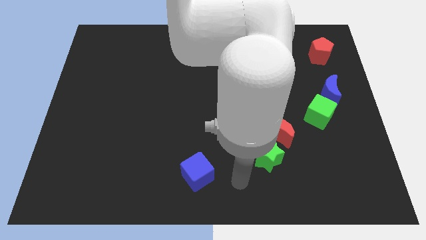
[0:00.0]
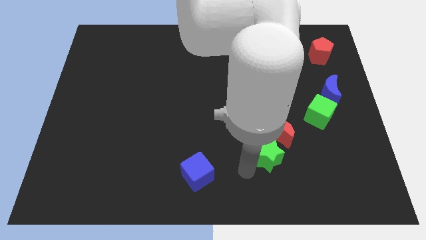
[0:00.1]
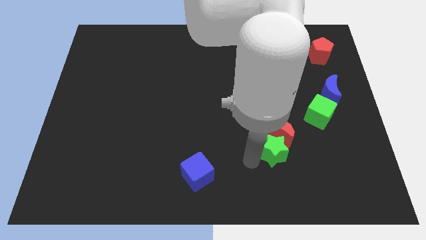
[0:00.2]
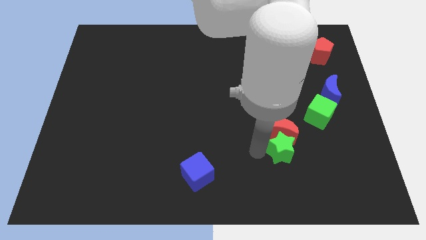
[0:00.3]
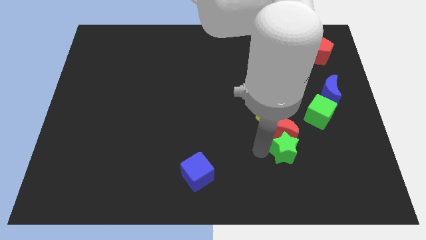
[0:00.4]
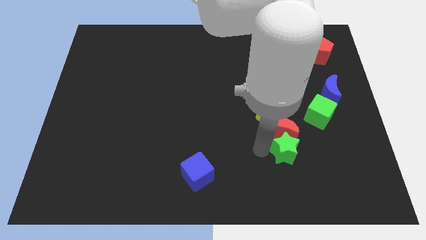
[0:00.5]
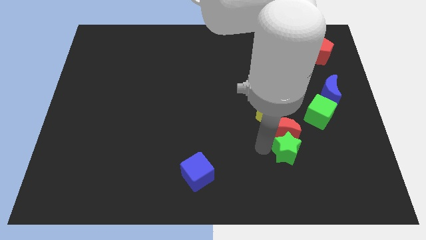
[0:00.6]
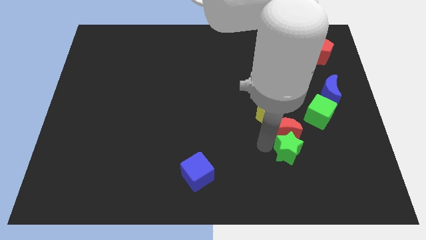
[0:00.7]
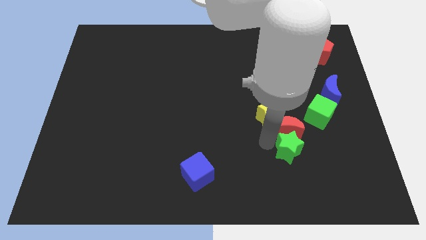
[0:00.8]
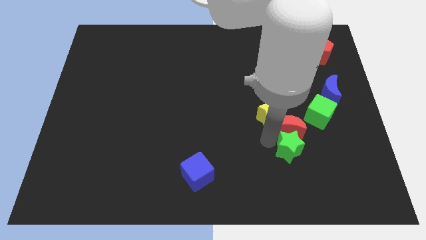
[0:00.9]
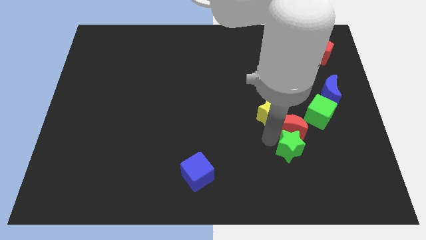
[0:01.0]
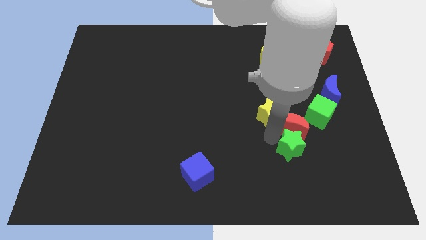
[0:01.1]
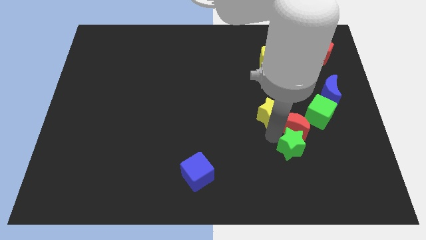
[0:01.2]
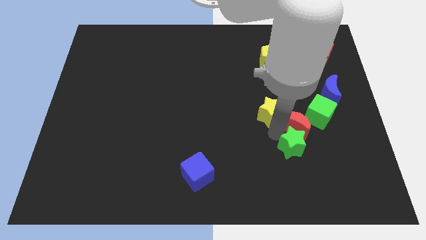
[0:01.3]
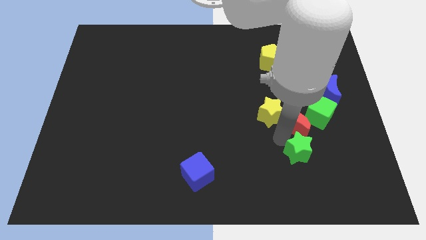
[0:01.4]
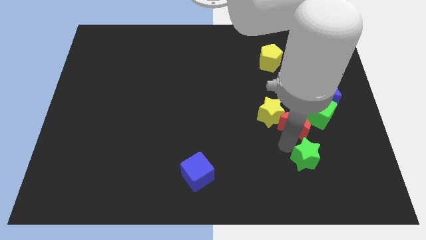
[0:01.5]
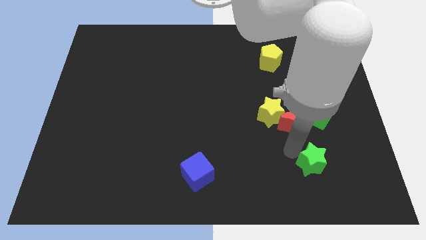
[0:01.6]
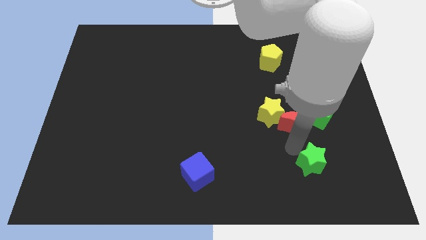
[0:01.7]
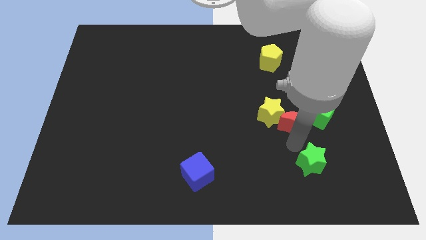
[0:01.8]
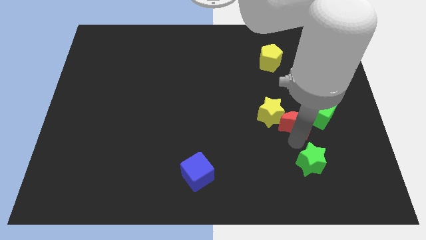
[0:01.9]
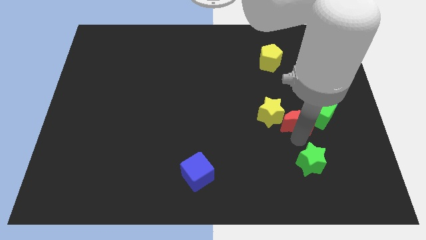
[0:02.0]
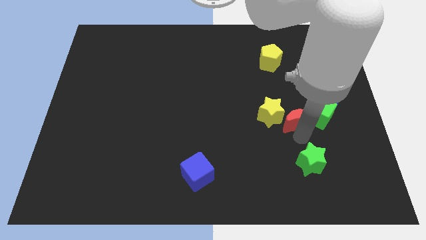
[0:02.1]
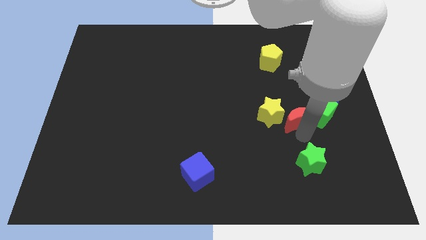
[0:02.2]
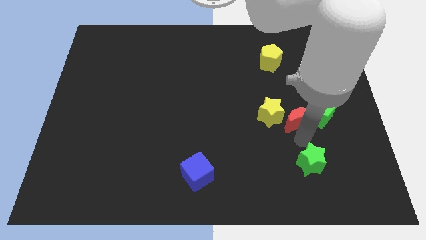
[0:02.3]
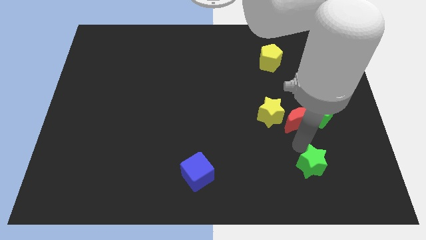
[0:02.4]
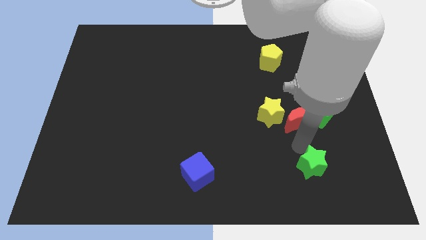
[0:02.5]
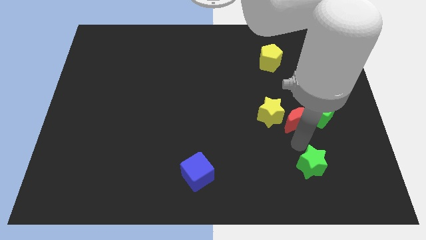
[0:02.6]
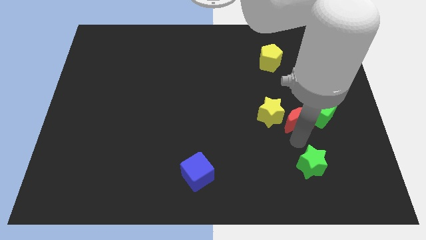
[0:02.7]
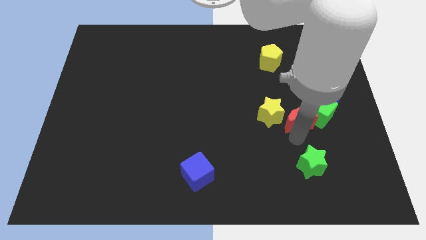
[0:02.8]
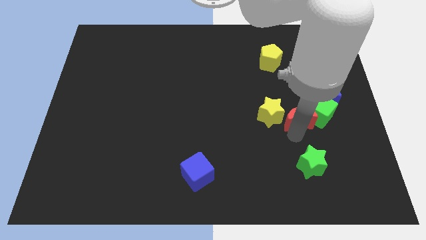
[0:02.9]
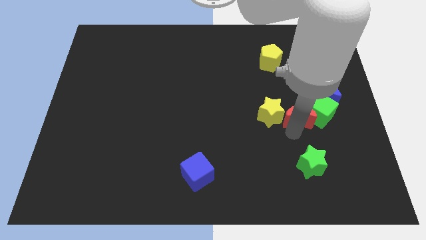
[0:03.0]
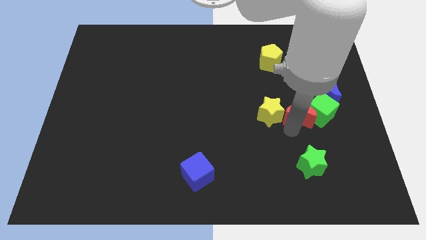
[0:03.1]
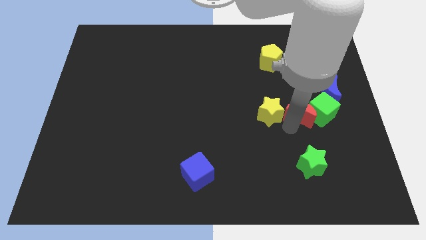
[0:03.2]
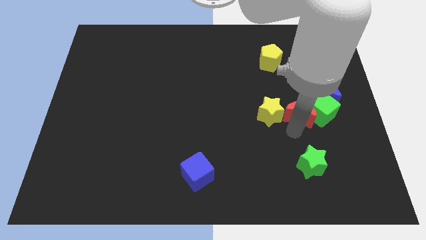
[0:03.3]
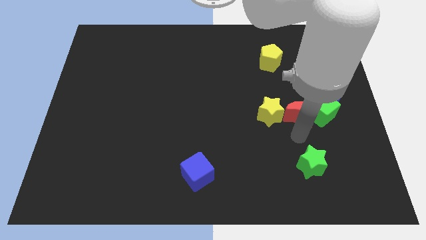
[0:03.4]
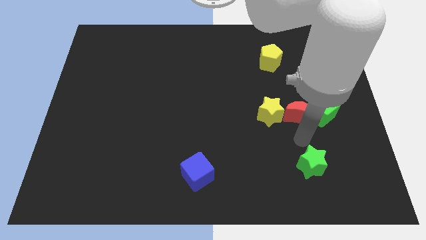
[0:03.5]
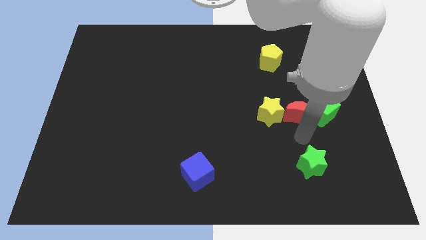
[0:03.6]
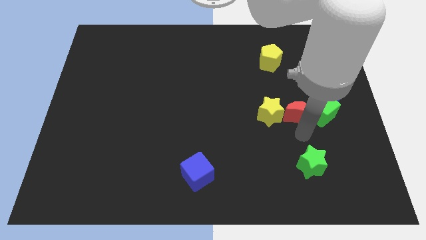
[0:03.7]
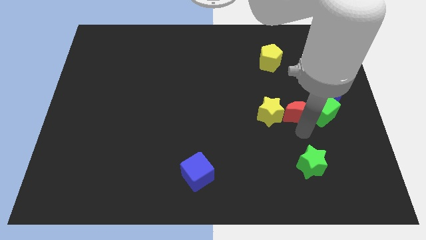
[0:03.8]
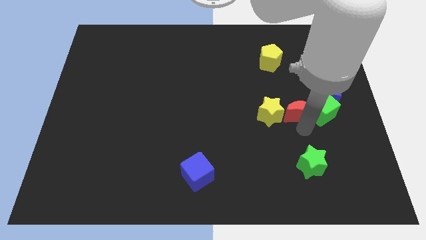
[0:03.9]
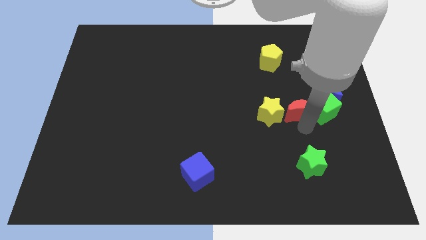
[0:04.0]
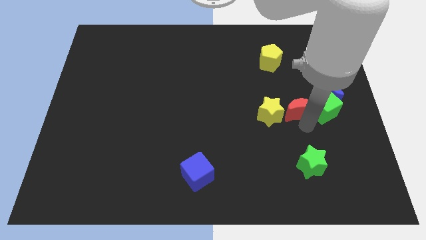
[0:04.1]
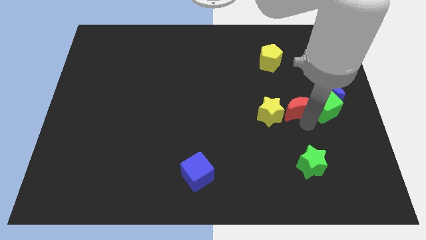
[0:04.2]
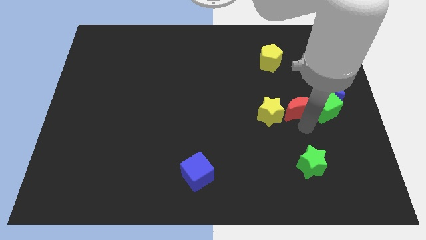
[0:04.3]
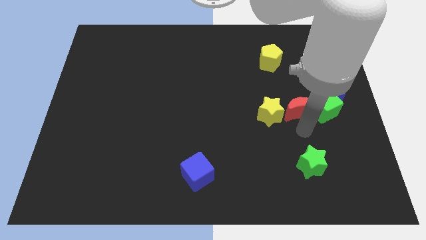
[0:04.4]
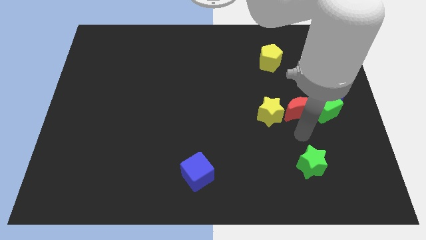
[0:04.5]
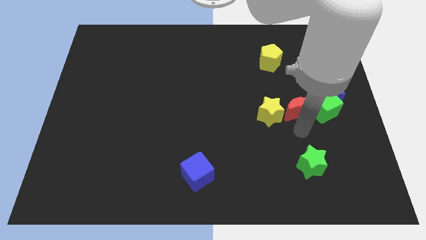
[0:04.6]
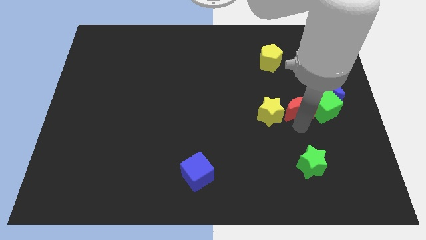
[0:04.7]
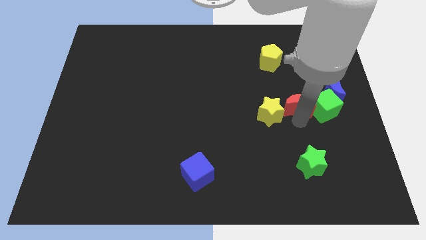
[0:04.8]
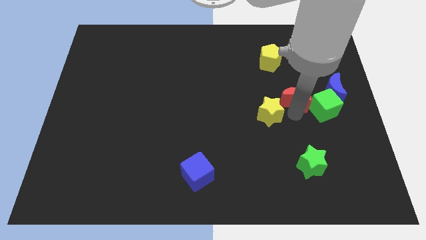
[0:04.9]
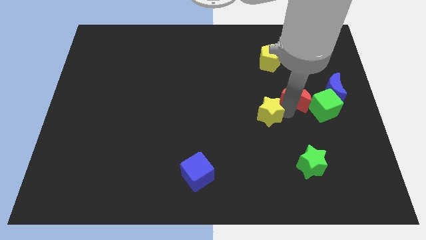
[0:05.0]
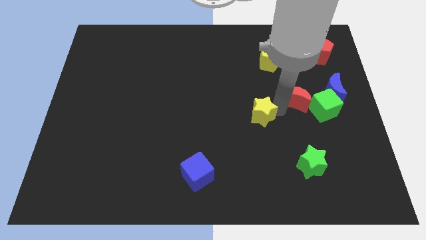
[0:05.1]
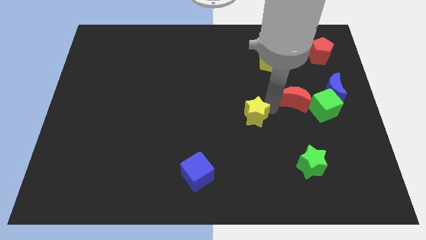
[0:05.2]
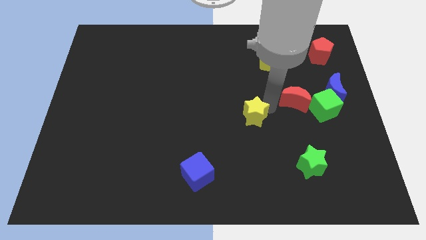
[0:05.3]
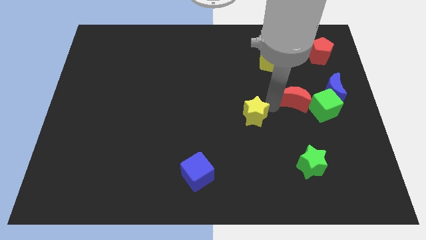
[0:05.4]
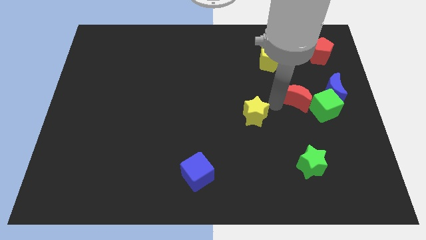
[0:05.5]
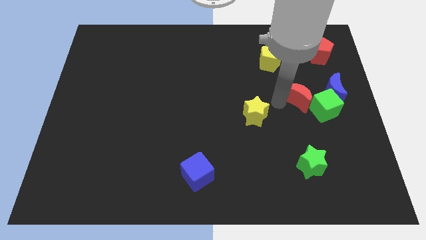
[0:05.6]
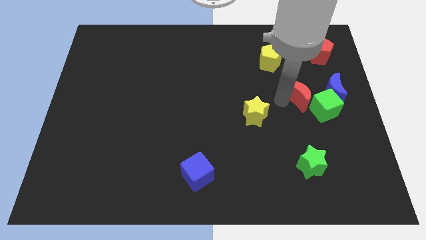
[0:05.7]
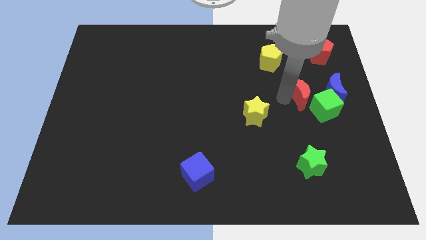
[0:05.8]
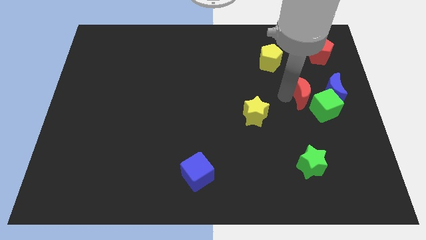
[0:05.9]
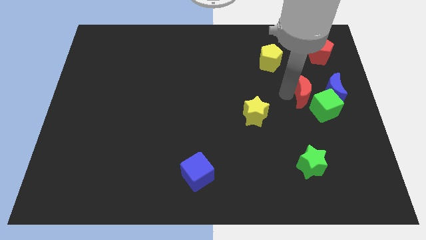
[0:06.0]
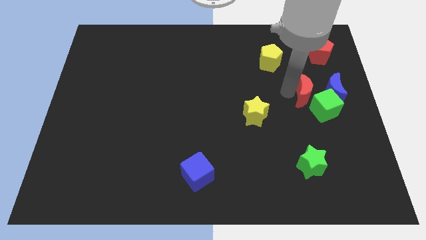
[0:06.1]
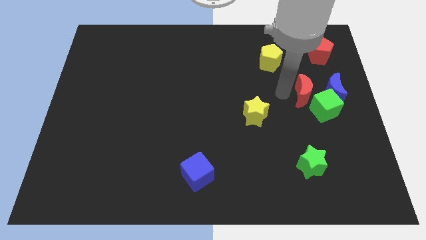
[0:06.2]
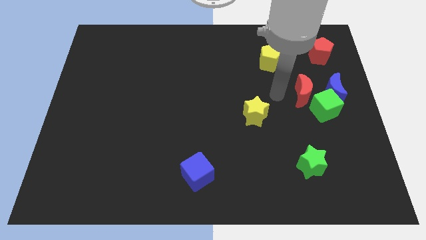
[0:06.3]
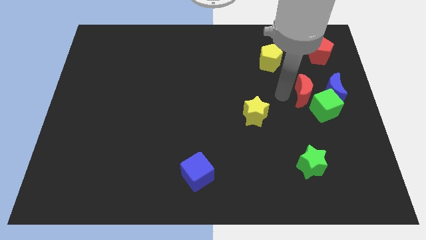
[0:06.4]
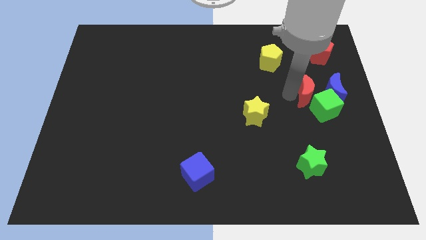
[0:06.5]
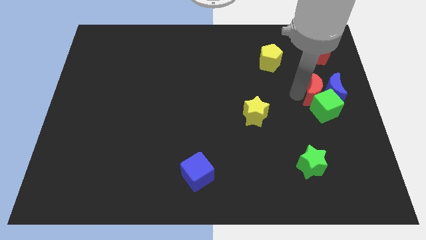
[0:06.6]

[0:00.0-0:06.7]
move the red moon towards the blue moon

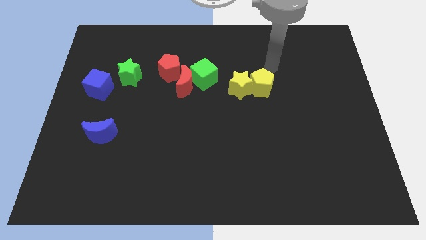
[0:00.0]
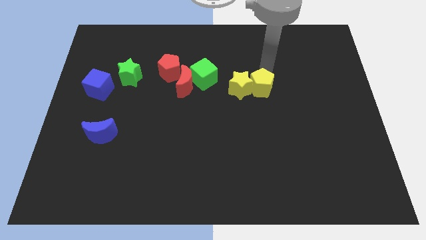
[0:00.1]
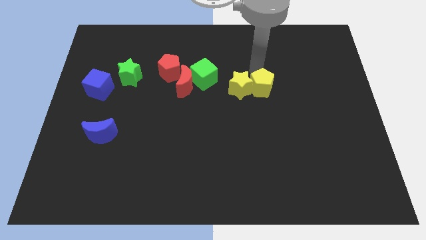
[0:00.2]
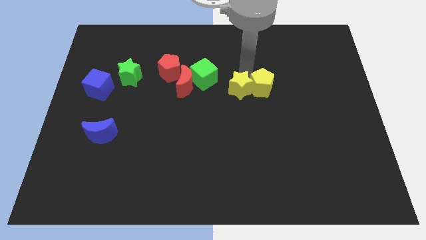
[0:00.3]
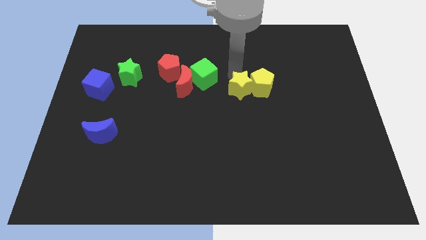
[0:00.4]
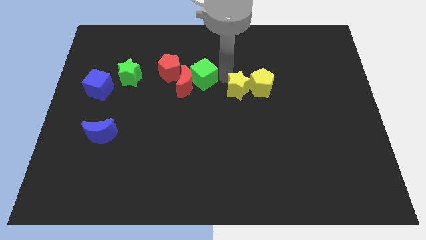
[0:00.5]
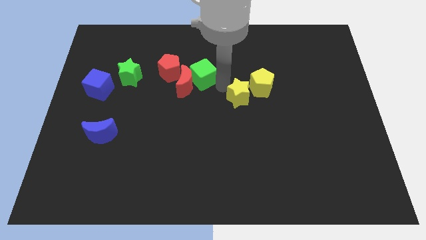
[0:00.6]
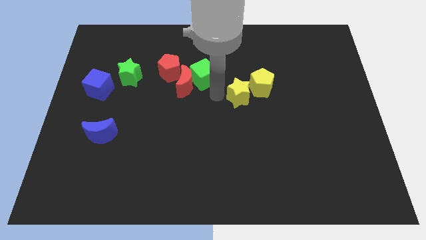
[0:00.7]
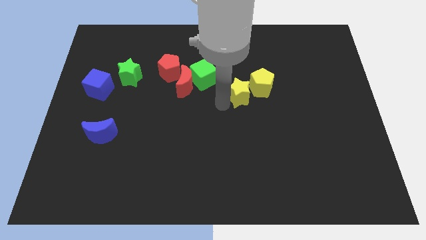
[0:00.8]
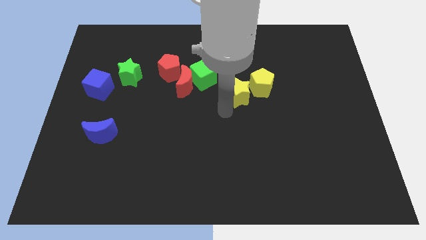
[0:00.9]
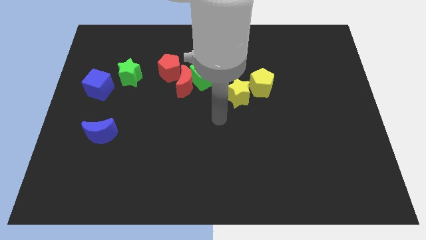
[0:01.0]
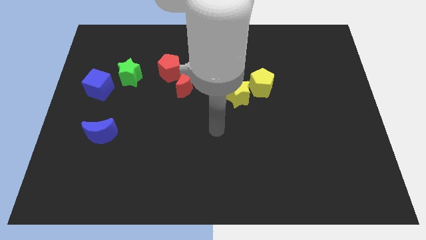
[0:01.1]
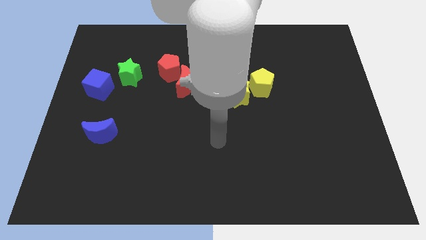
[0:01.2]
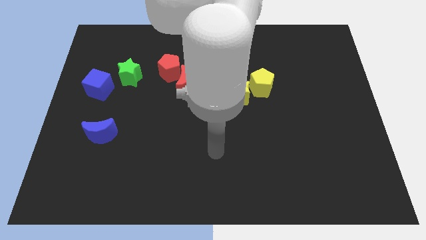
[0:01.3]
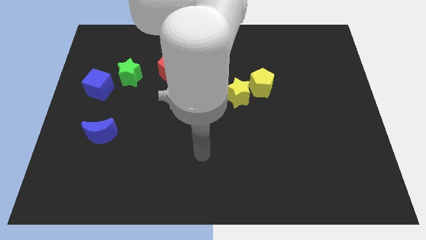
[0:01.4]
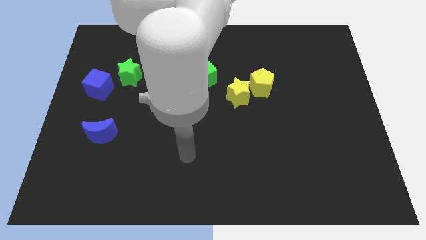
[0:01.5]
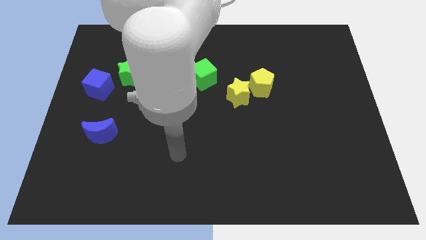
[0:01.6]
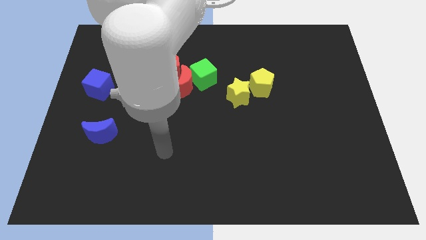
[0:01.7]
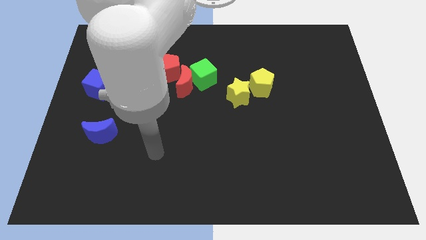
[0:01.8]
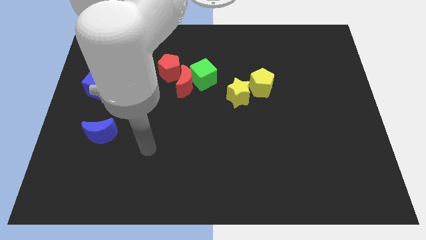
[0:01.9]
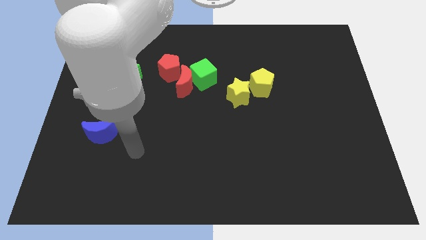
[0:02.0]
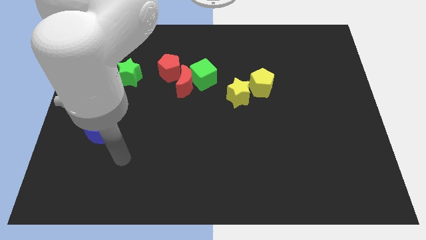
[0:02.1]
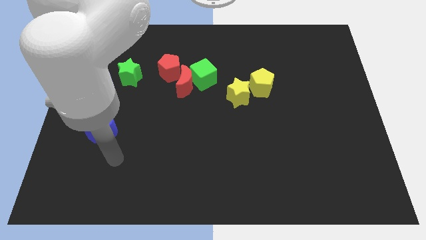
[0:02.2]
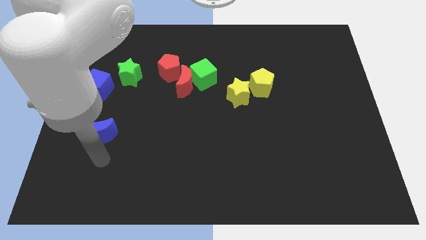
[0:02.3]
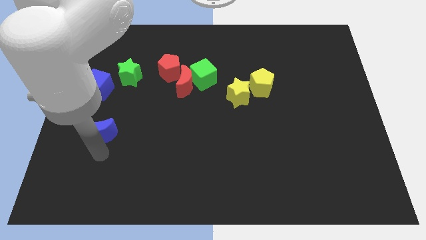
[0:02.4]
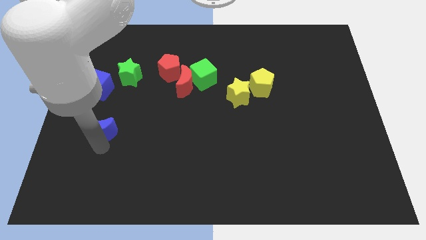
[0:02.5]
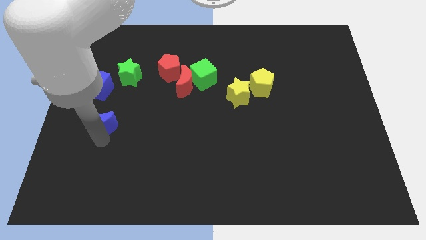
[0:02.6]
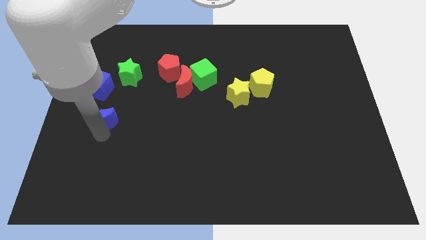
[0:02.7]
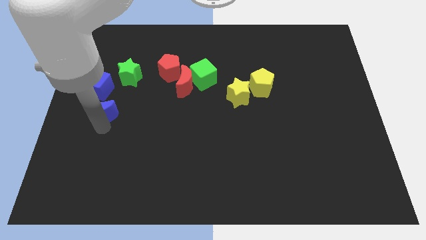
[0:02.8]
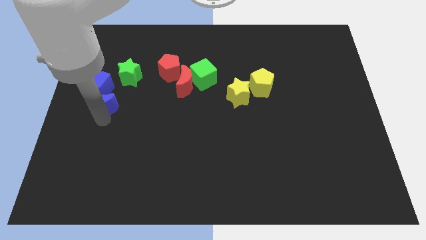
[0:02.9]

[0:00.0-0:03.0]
put the blue moon next to the blue cube
